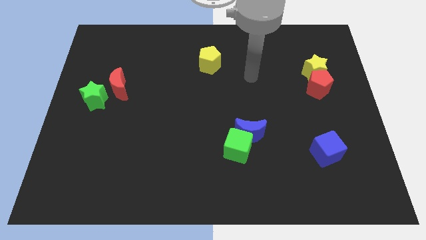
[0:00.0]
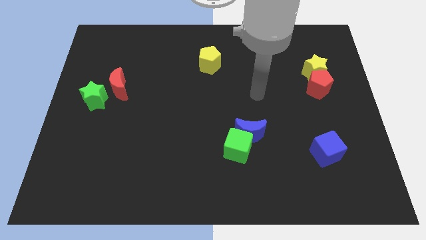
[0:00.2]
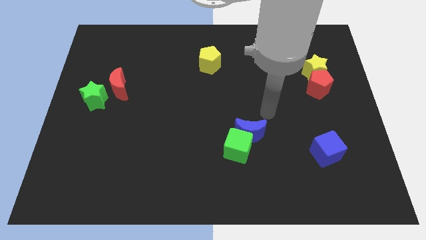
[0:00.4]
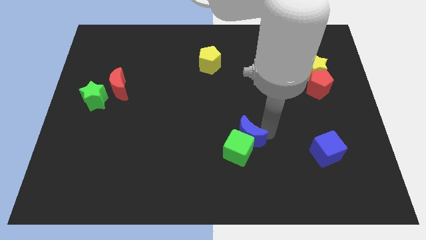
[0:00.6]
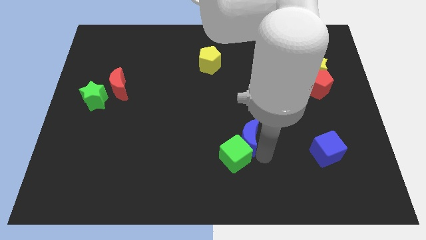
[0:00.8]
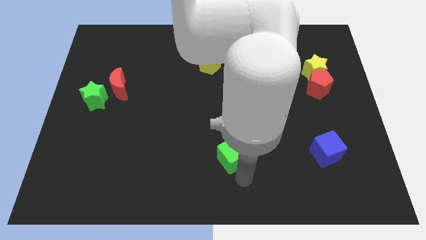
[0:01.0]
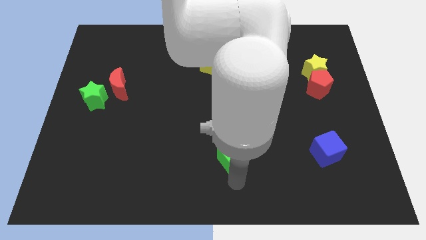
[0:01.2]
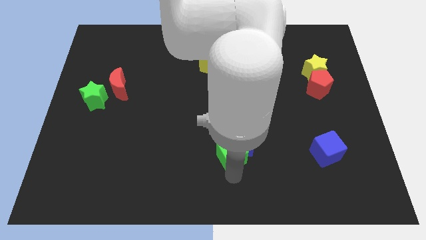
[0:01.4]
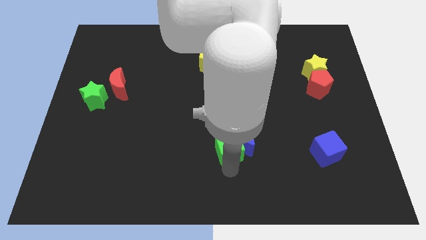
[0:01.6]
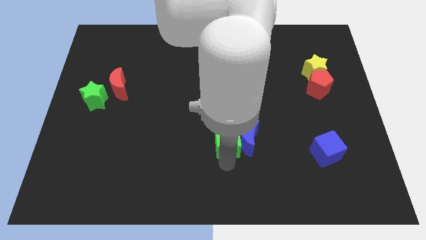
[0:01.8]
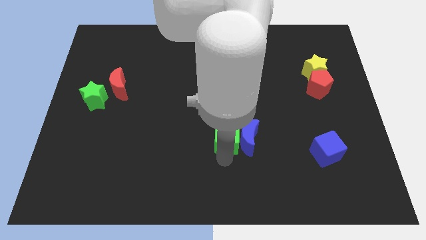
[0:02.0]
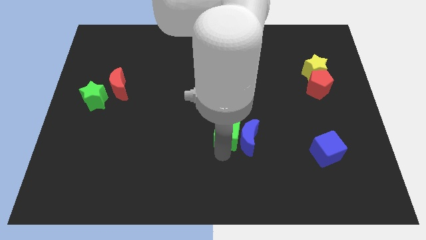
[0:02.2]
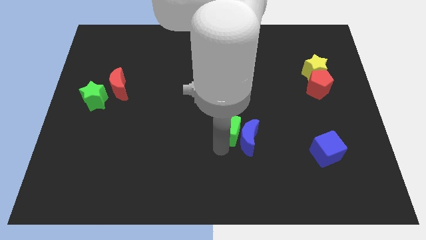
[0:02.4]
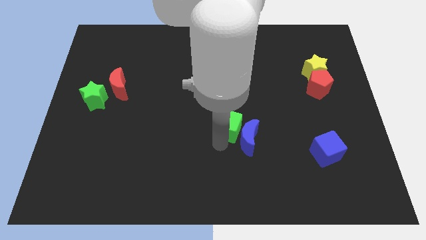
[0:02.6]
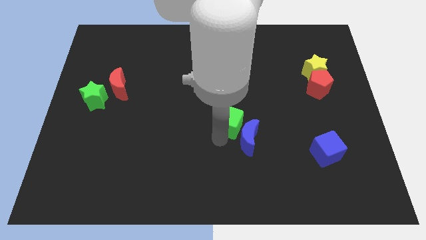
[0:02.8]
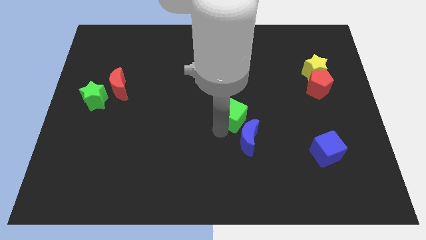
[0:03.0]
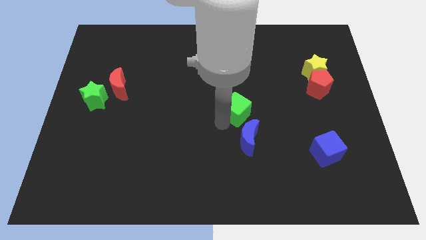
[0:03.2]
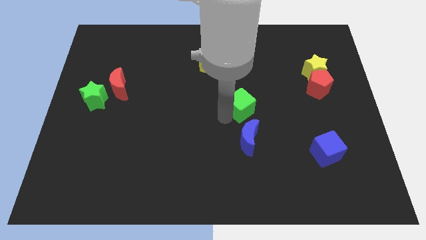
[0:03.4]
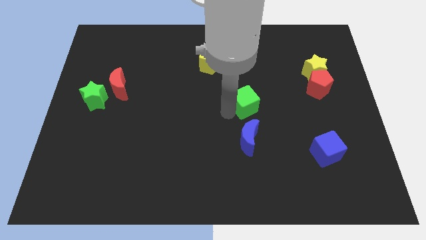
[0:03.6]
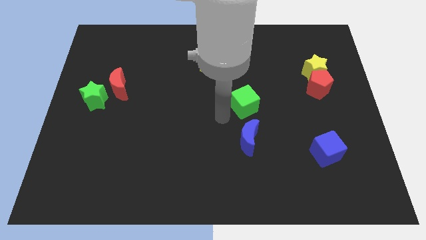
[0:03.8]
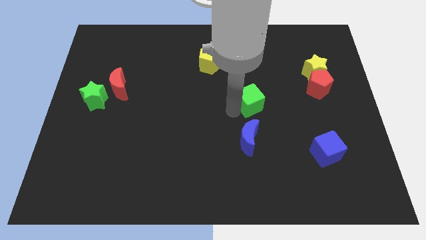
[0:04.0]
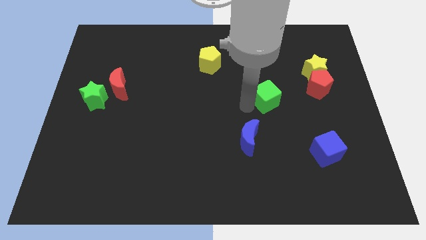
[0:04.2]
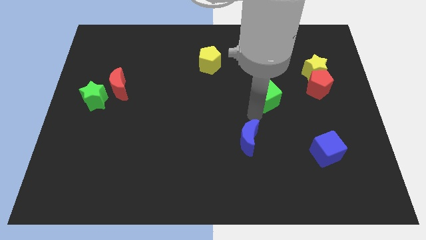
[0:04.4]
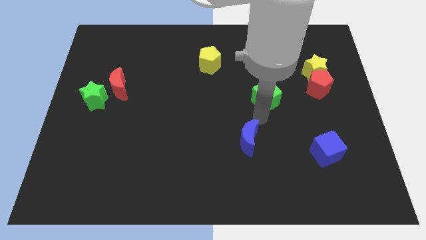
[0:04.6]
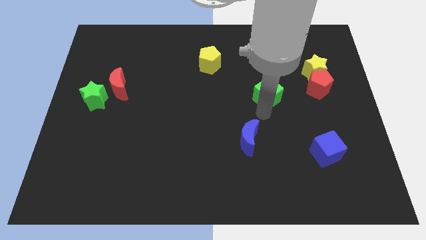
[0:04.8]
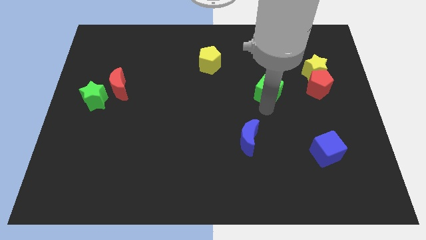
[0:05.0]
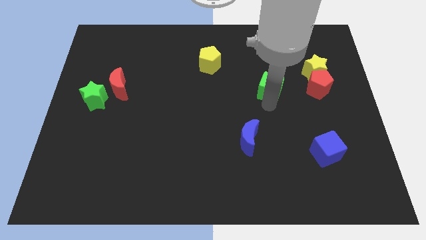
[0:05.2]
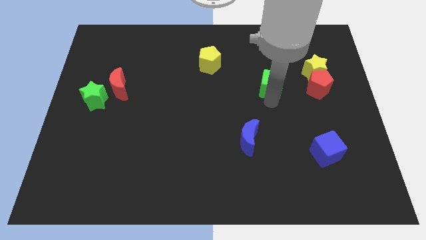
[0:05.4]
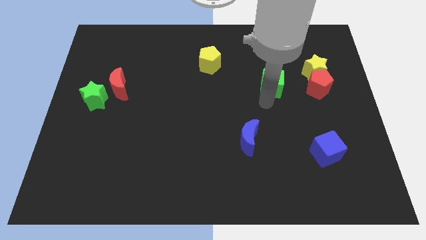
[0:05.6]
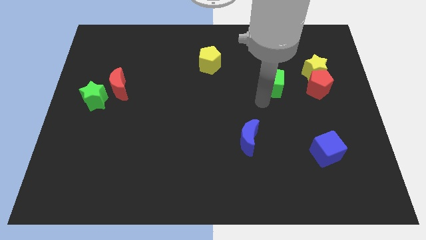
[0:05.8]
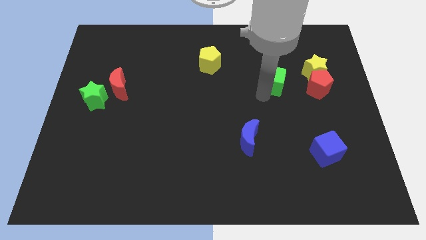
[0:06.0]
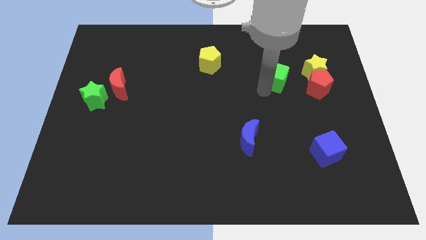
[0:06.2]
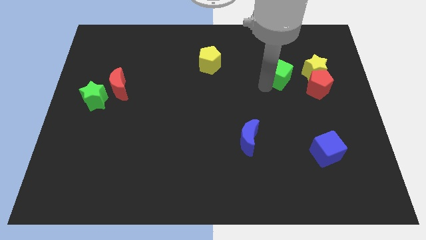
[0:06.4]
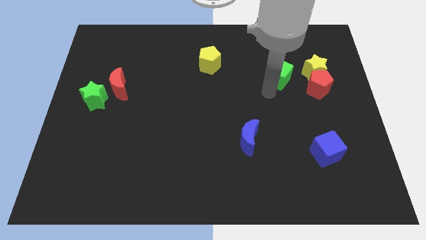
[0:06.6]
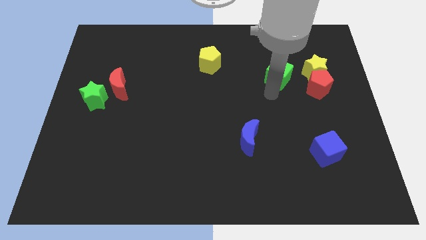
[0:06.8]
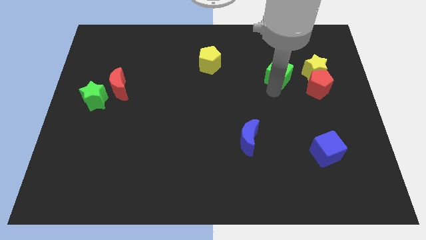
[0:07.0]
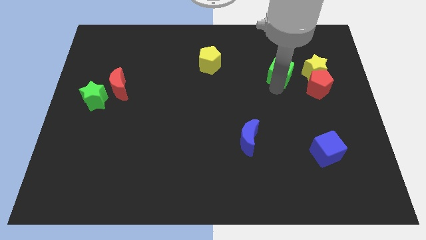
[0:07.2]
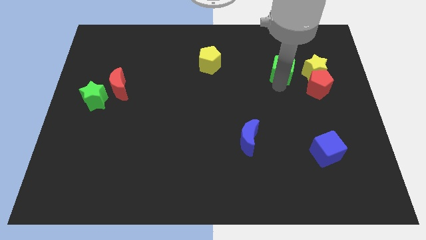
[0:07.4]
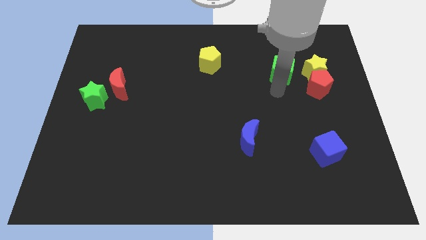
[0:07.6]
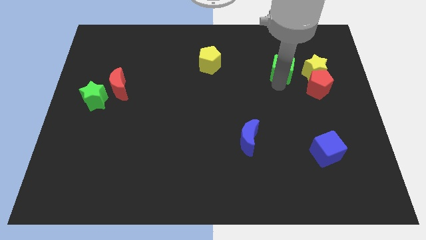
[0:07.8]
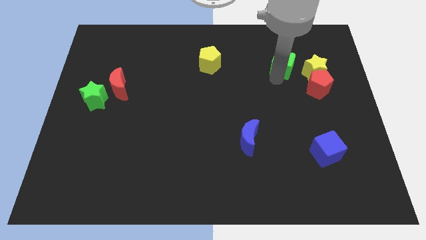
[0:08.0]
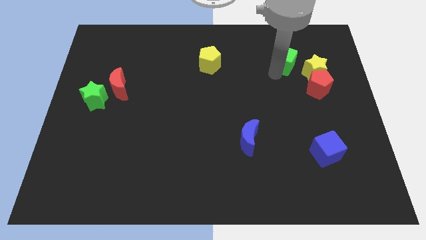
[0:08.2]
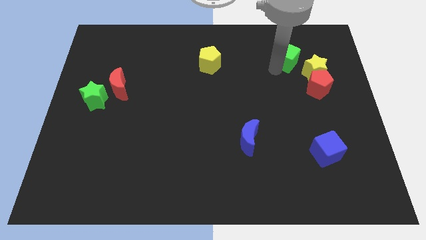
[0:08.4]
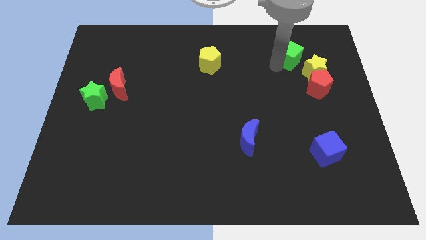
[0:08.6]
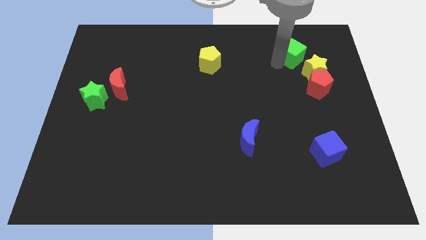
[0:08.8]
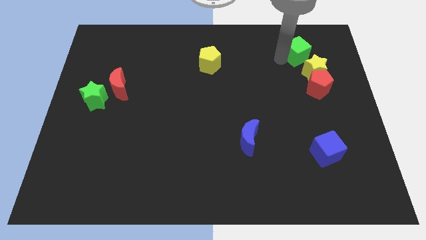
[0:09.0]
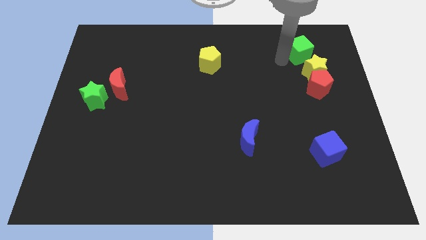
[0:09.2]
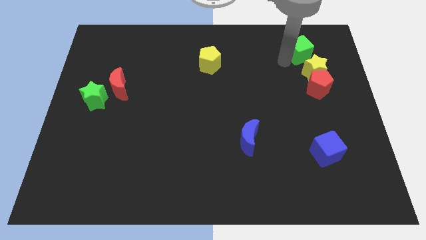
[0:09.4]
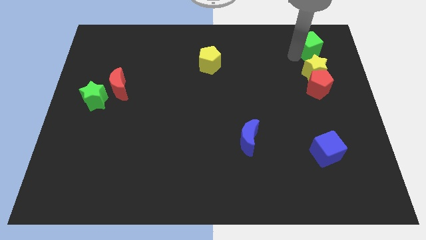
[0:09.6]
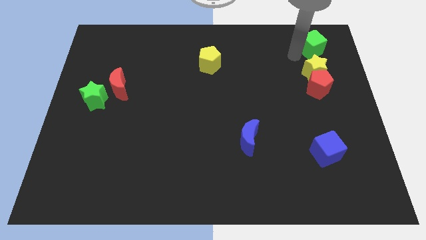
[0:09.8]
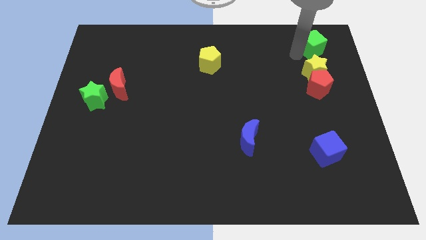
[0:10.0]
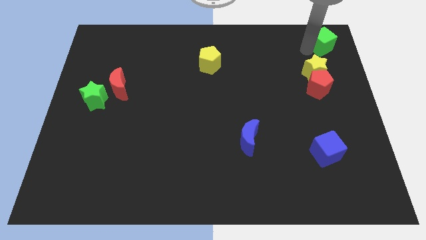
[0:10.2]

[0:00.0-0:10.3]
put the green cube to the top right of the board

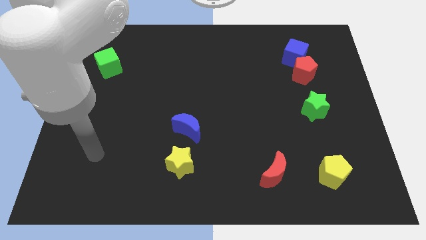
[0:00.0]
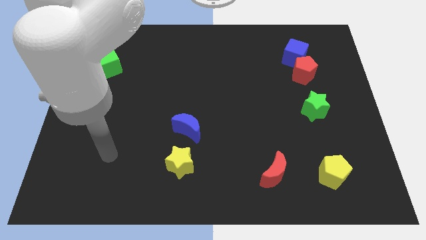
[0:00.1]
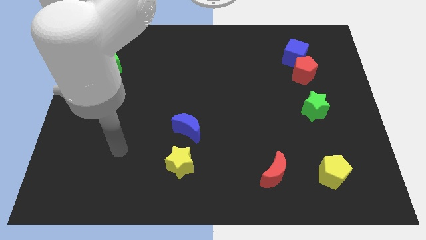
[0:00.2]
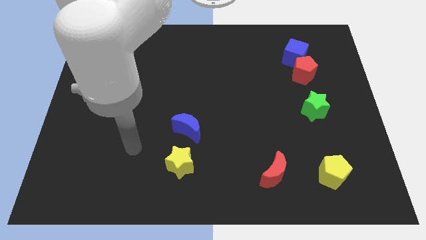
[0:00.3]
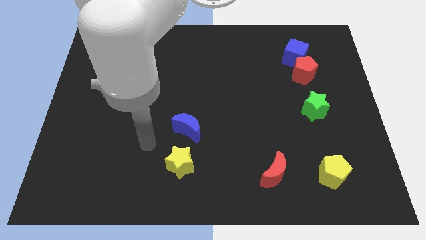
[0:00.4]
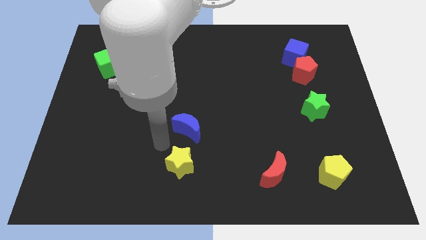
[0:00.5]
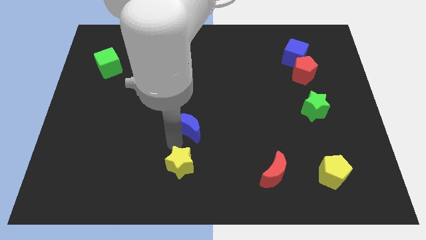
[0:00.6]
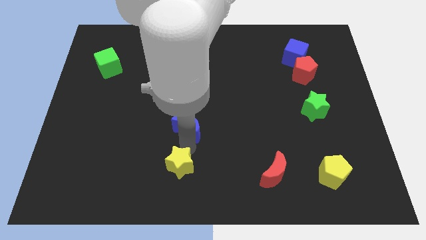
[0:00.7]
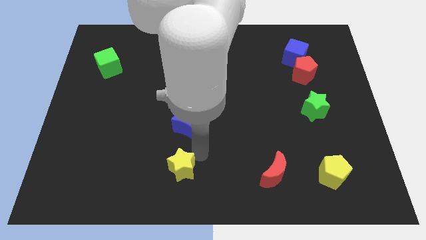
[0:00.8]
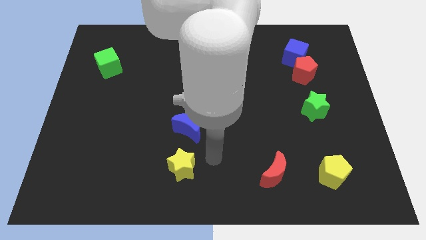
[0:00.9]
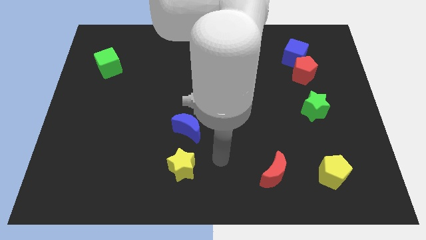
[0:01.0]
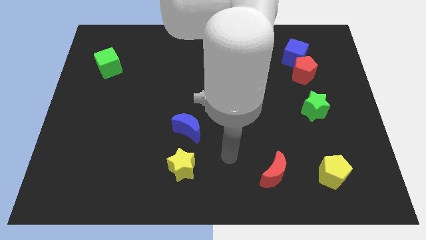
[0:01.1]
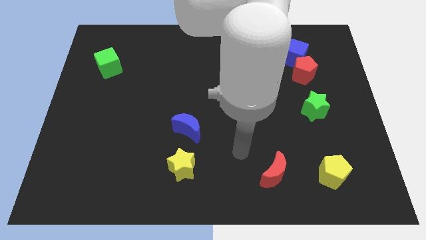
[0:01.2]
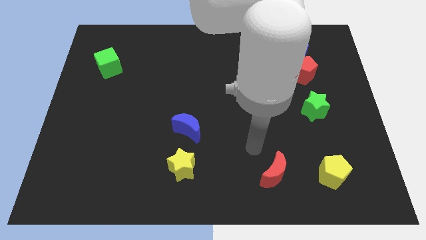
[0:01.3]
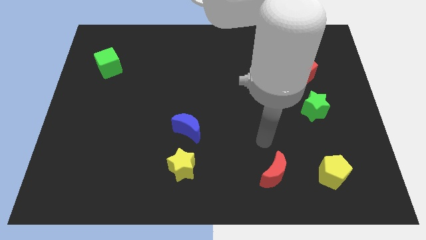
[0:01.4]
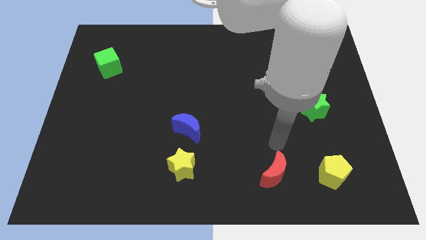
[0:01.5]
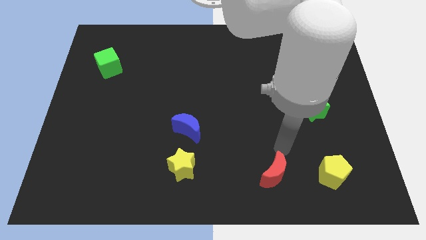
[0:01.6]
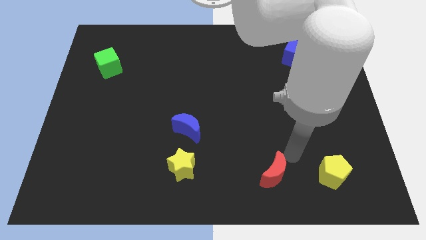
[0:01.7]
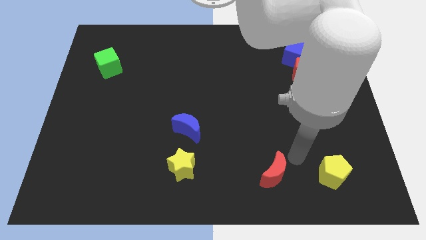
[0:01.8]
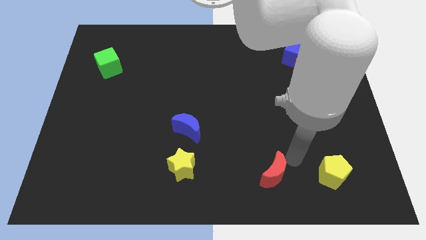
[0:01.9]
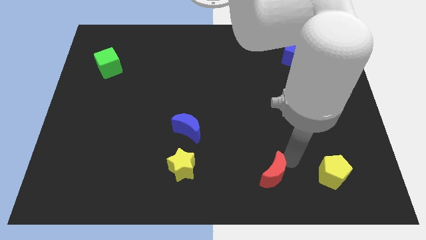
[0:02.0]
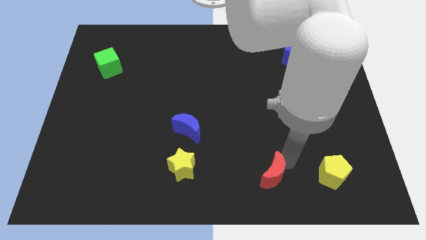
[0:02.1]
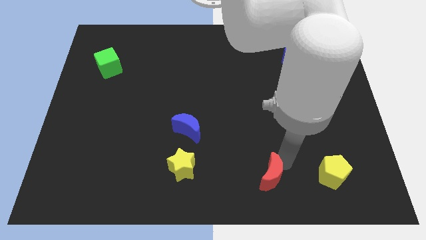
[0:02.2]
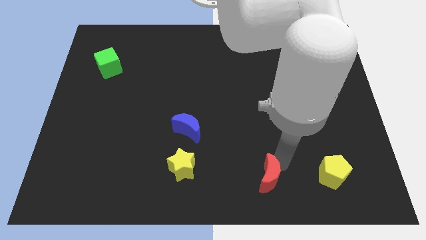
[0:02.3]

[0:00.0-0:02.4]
move the red moon to the bottom side
